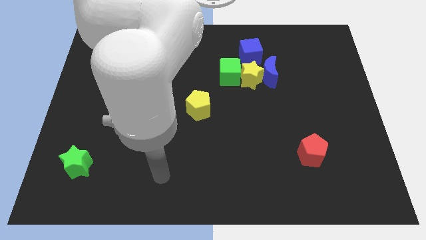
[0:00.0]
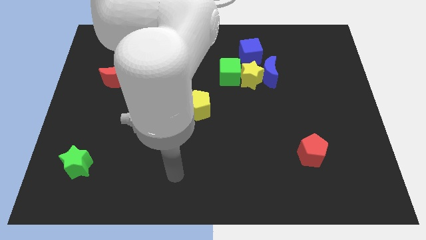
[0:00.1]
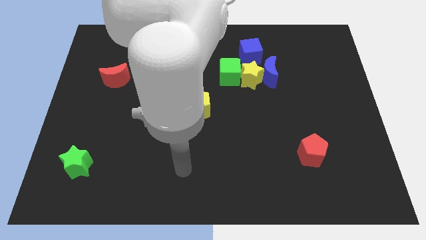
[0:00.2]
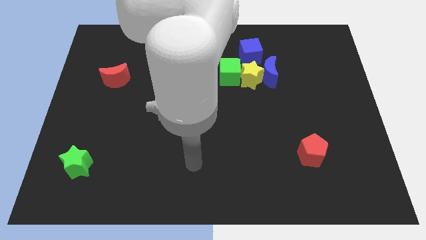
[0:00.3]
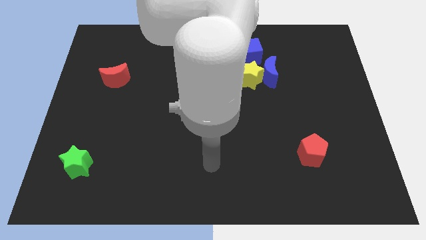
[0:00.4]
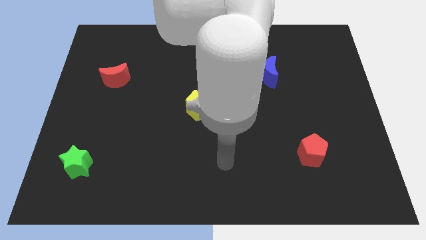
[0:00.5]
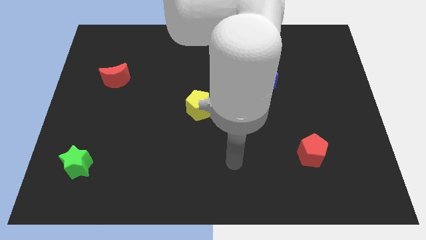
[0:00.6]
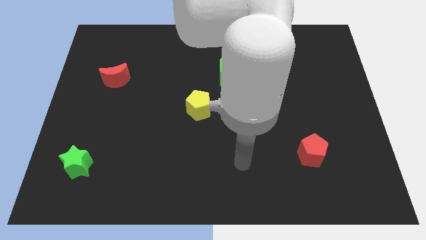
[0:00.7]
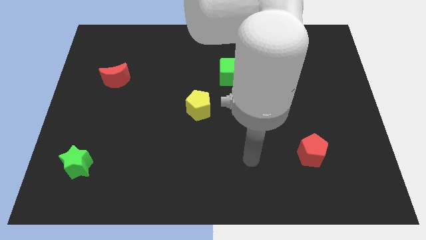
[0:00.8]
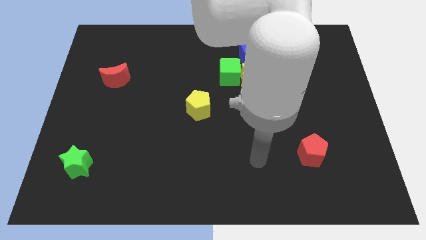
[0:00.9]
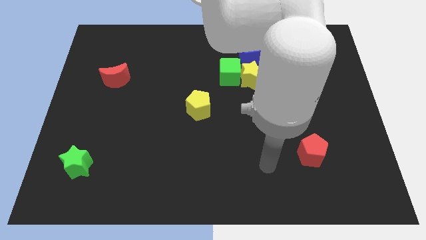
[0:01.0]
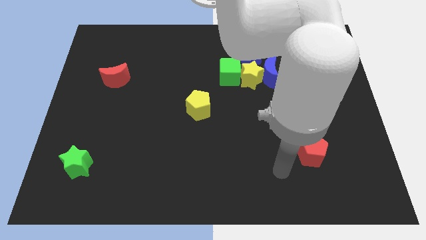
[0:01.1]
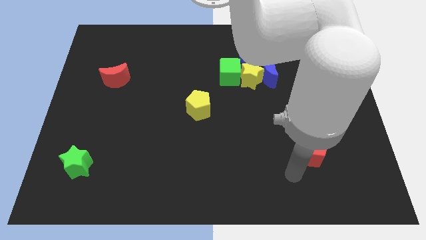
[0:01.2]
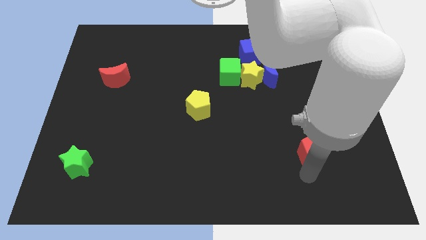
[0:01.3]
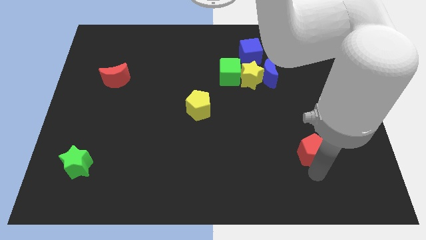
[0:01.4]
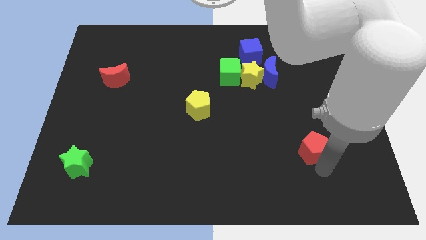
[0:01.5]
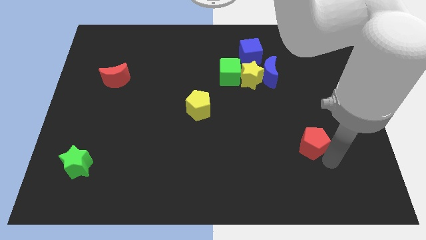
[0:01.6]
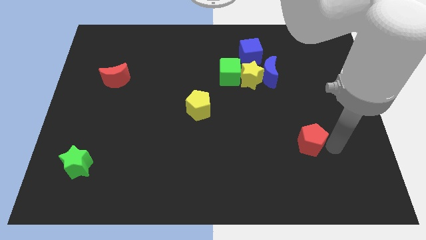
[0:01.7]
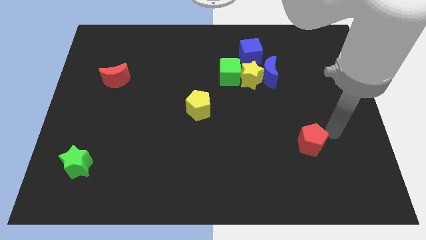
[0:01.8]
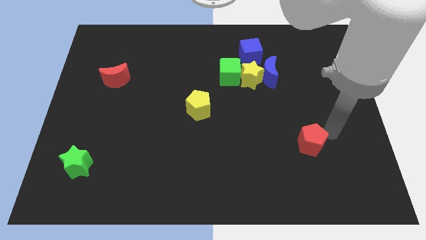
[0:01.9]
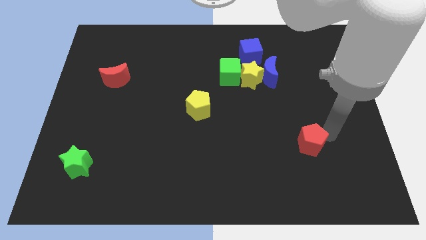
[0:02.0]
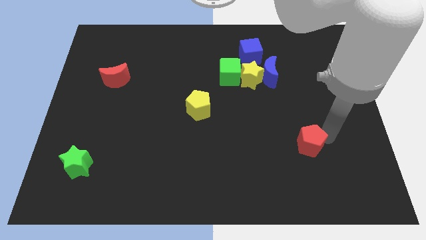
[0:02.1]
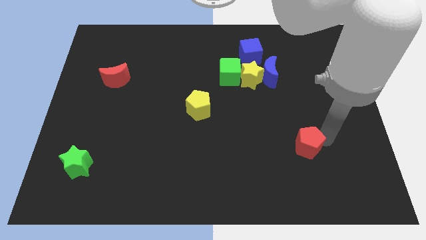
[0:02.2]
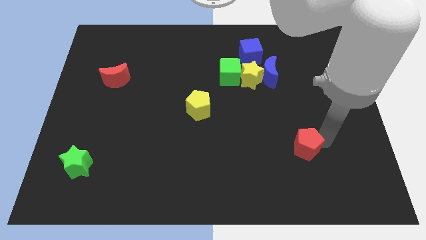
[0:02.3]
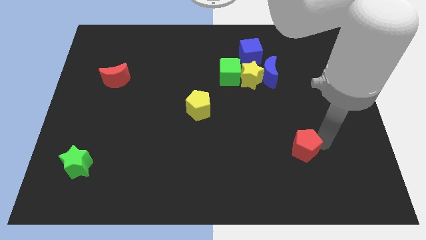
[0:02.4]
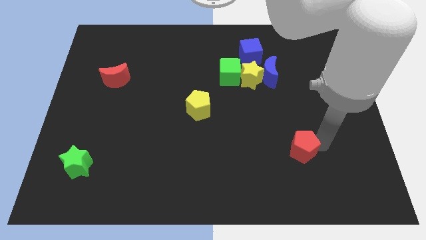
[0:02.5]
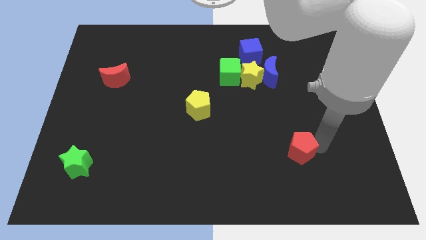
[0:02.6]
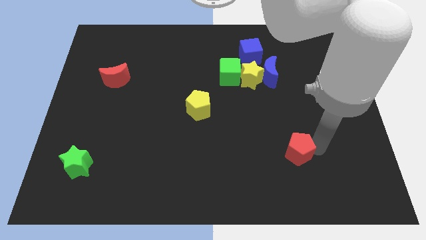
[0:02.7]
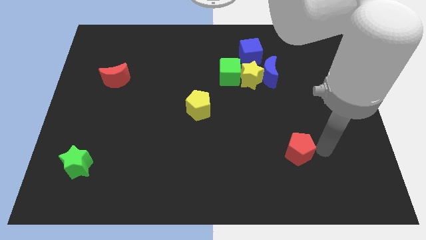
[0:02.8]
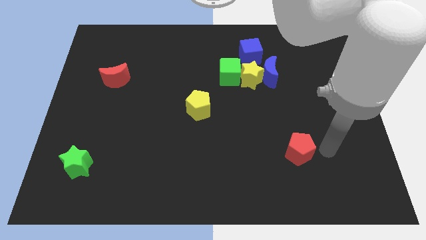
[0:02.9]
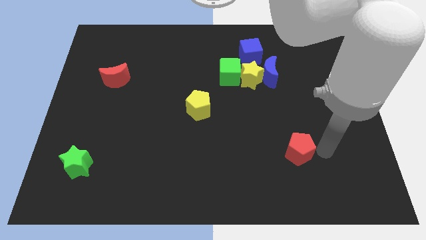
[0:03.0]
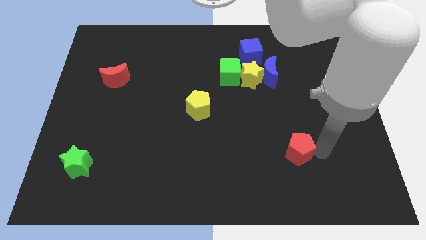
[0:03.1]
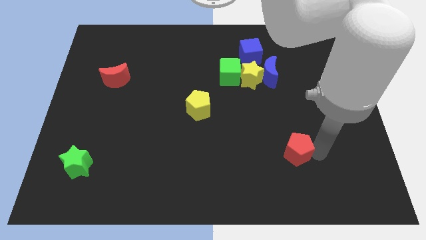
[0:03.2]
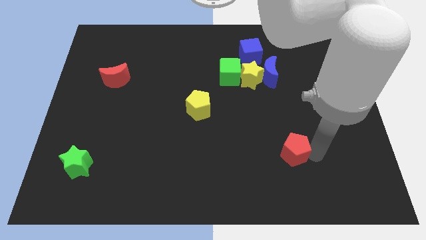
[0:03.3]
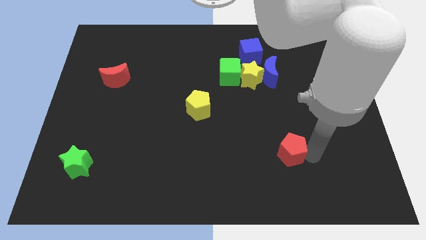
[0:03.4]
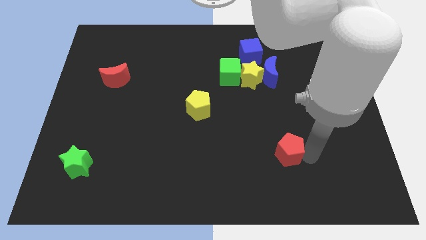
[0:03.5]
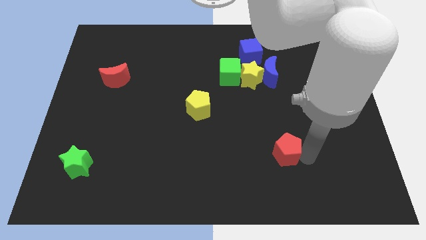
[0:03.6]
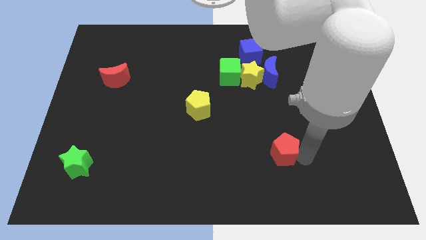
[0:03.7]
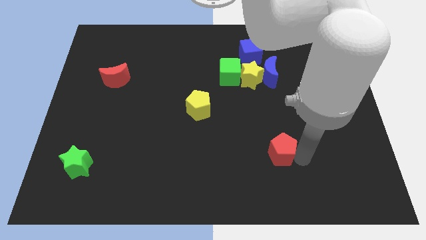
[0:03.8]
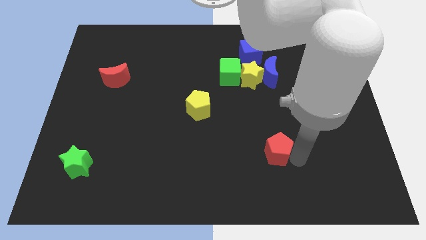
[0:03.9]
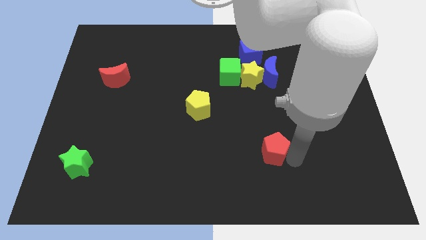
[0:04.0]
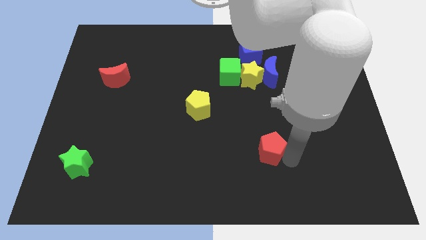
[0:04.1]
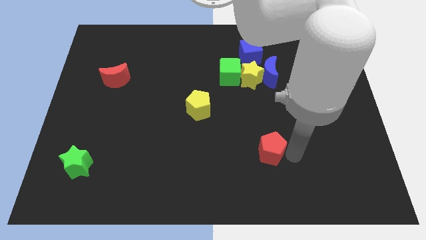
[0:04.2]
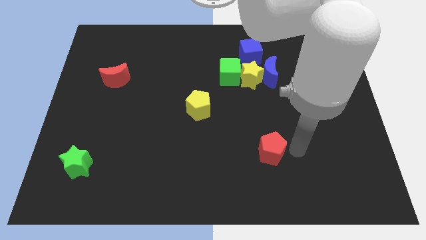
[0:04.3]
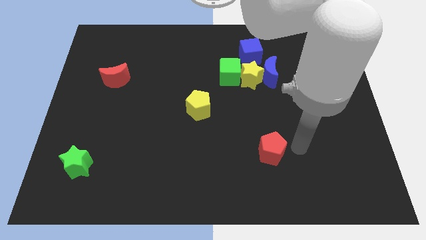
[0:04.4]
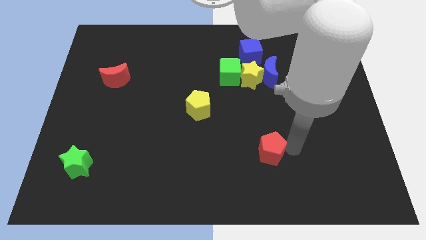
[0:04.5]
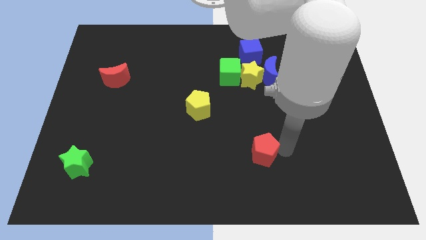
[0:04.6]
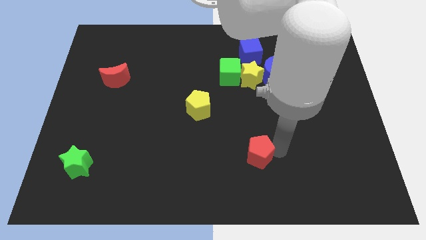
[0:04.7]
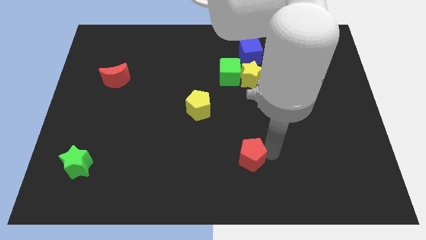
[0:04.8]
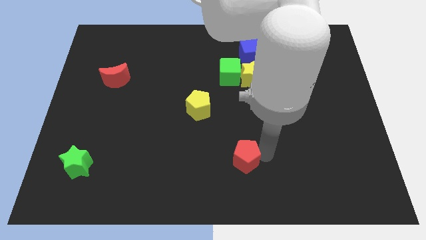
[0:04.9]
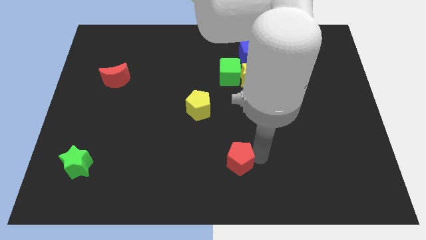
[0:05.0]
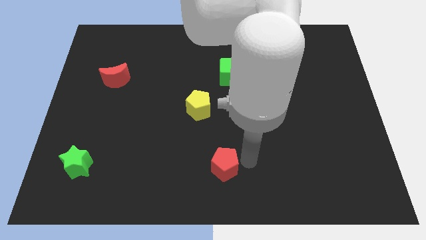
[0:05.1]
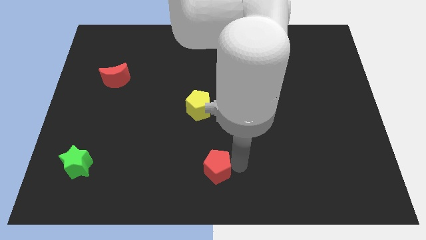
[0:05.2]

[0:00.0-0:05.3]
move the red pentagon to the left

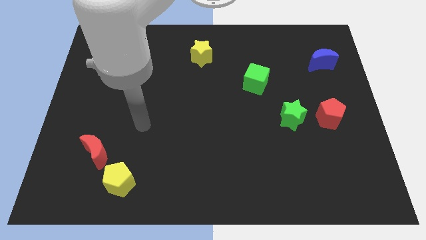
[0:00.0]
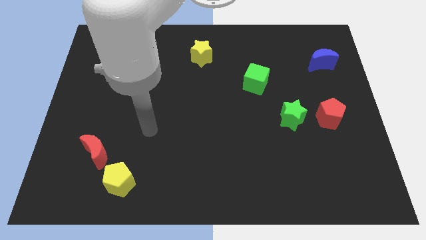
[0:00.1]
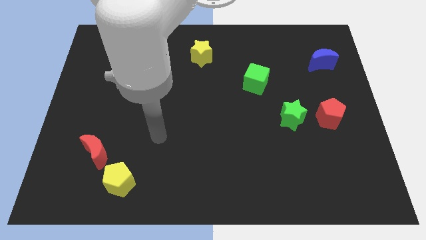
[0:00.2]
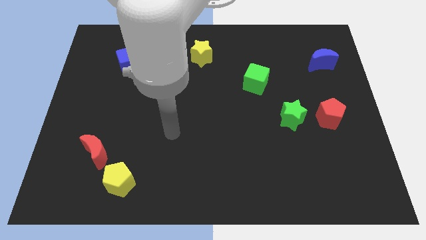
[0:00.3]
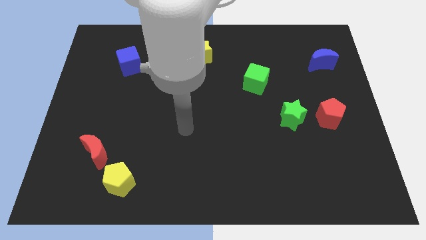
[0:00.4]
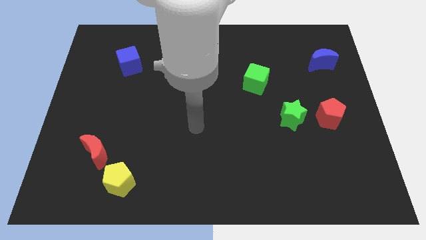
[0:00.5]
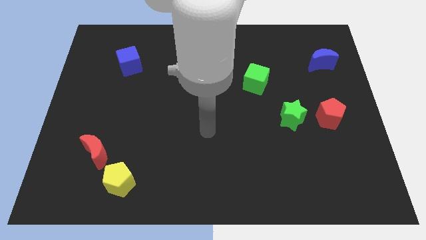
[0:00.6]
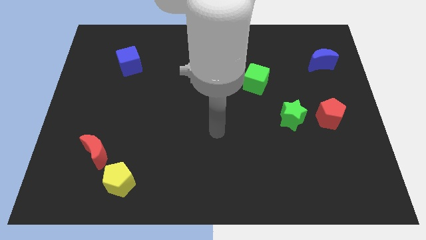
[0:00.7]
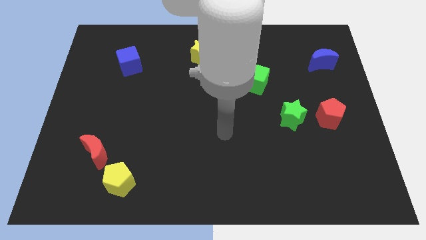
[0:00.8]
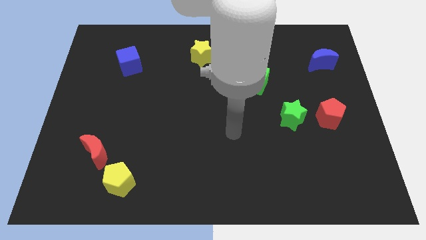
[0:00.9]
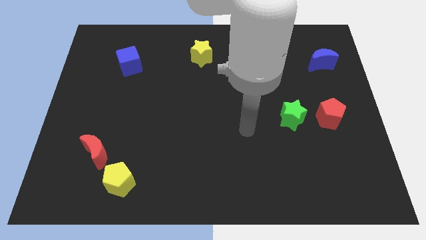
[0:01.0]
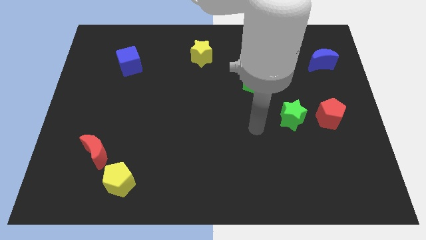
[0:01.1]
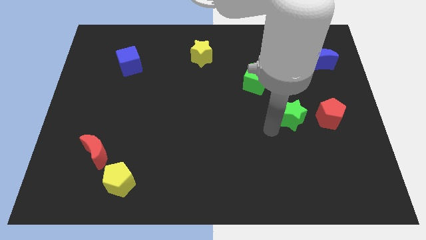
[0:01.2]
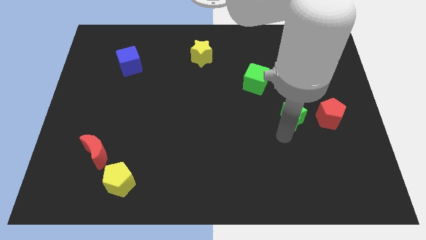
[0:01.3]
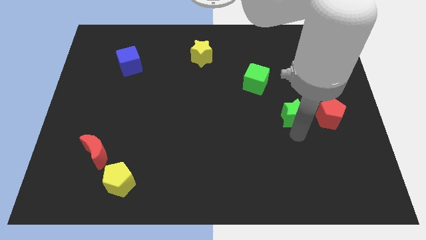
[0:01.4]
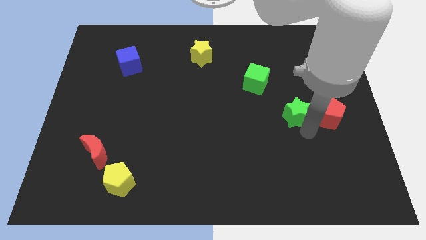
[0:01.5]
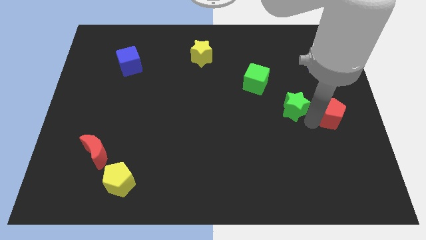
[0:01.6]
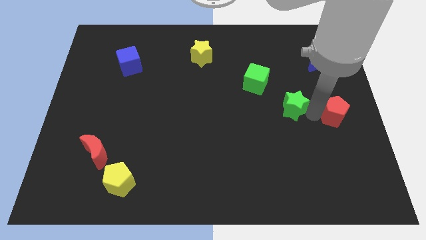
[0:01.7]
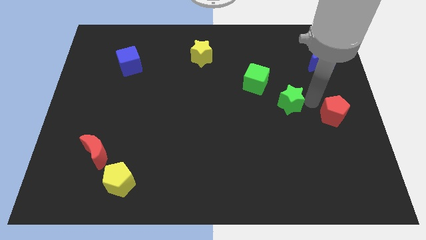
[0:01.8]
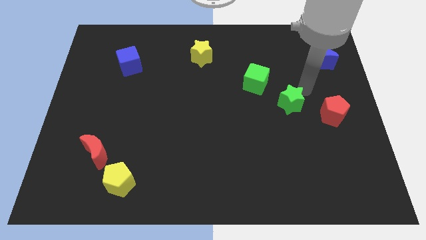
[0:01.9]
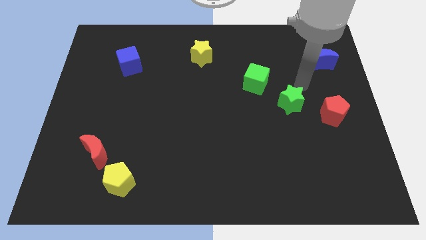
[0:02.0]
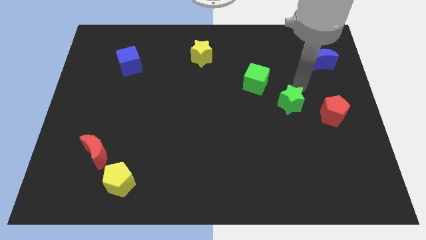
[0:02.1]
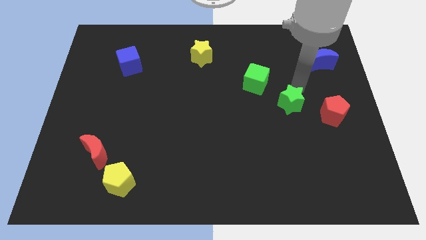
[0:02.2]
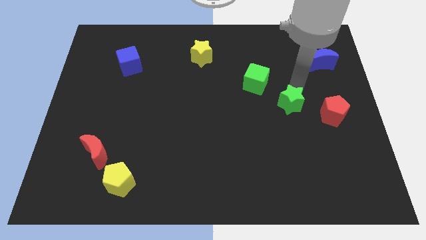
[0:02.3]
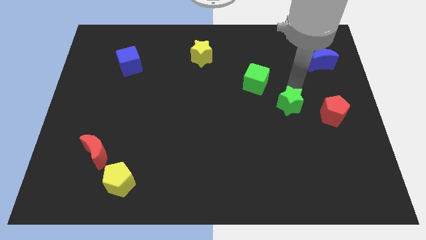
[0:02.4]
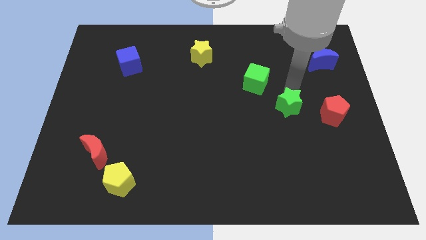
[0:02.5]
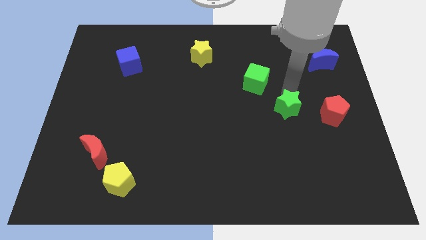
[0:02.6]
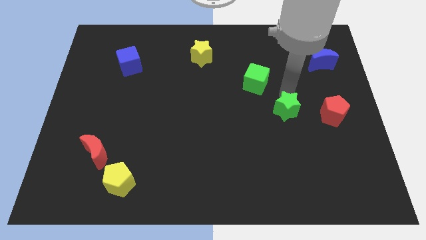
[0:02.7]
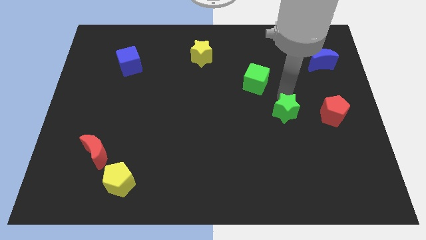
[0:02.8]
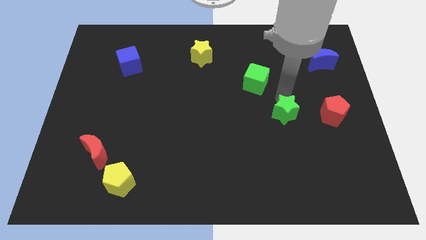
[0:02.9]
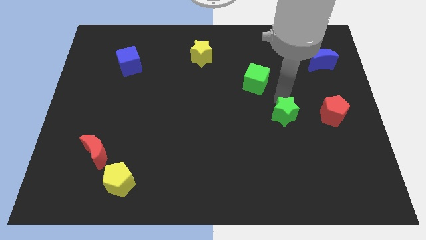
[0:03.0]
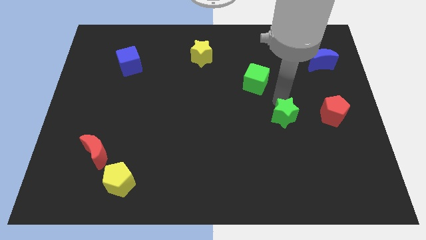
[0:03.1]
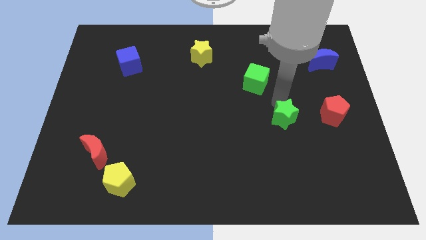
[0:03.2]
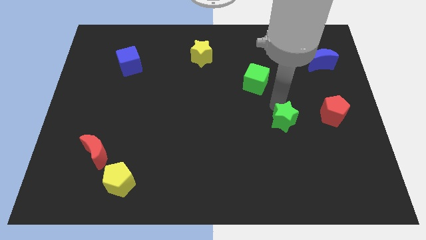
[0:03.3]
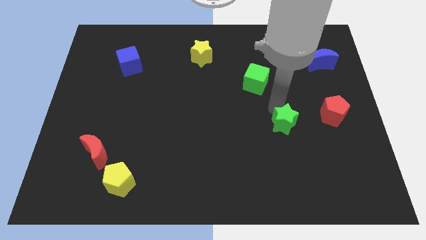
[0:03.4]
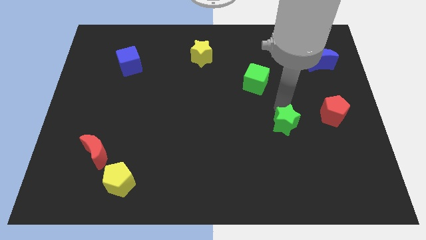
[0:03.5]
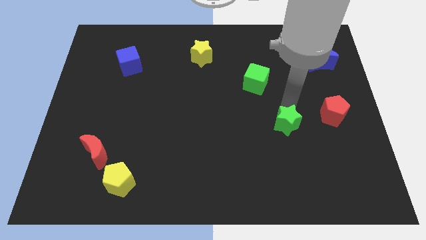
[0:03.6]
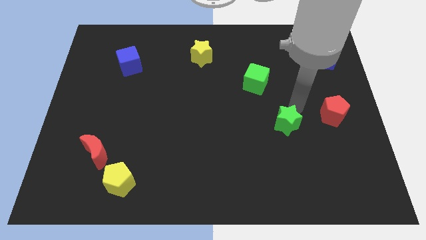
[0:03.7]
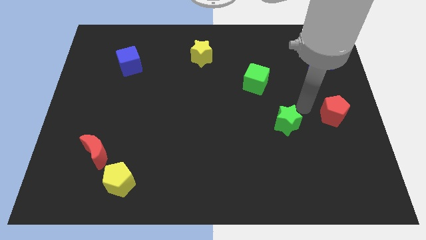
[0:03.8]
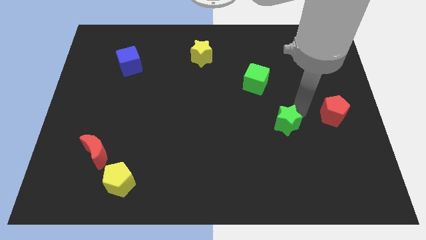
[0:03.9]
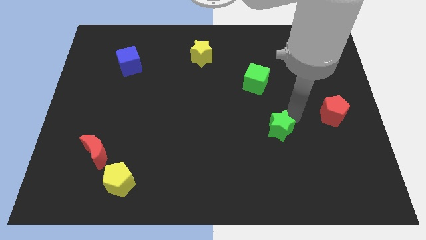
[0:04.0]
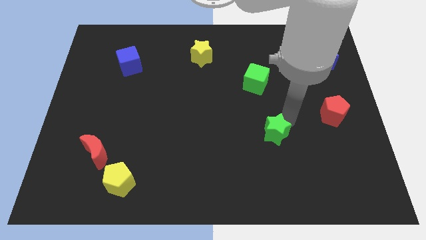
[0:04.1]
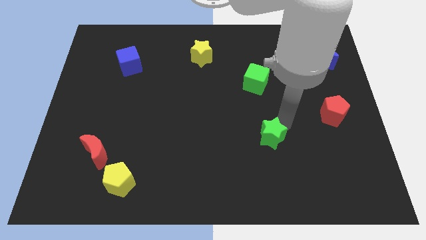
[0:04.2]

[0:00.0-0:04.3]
push the green star downwards and then left slightly
